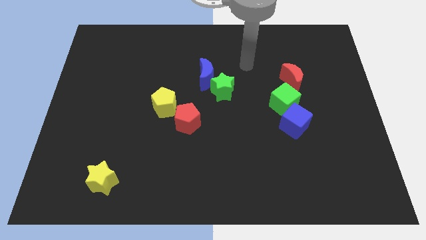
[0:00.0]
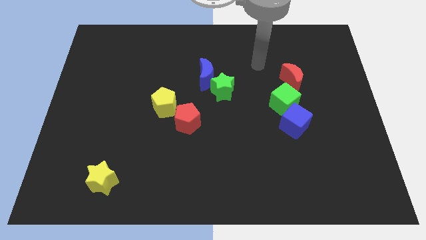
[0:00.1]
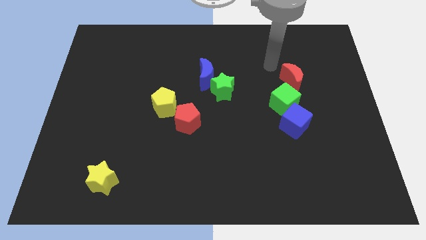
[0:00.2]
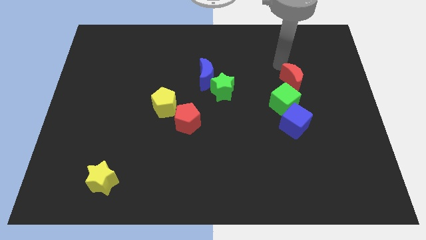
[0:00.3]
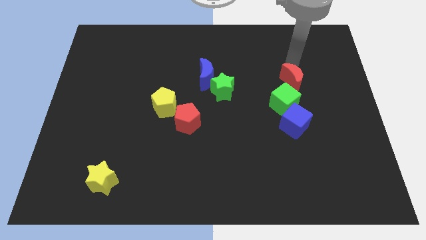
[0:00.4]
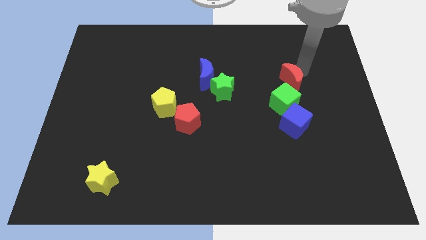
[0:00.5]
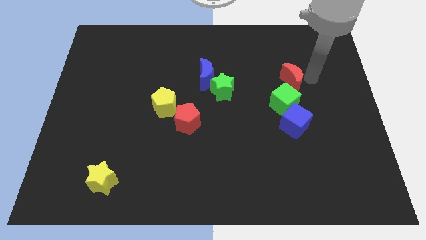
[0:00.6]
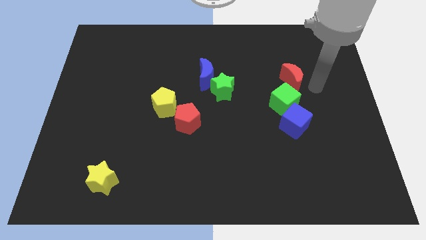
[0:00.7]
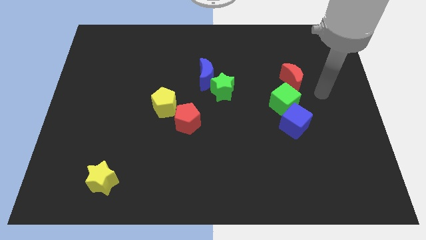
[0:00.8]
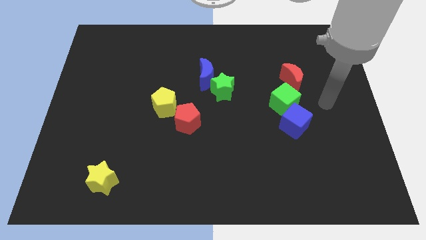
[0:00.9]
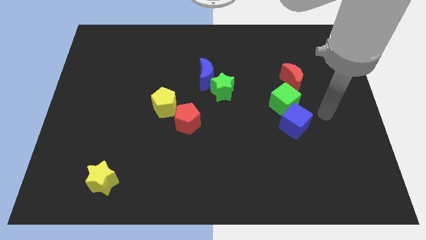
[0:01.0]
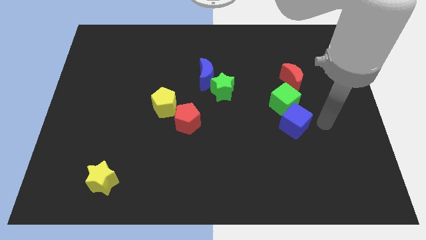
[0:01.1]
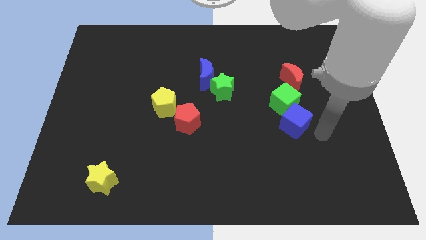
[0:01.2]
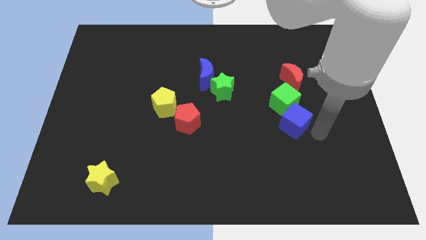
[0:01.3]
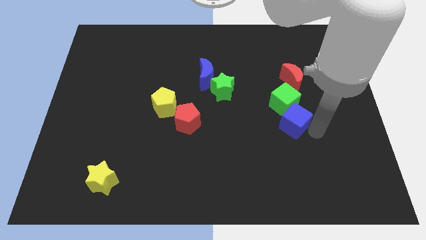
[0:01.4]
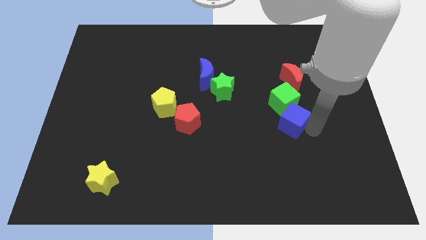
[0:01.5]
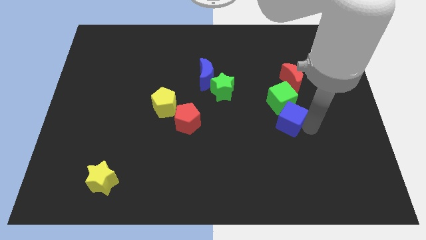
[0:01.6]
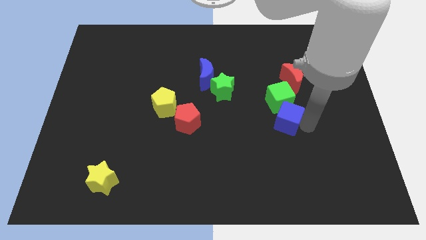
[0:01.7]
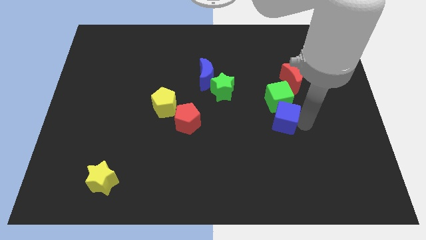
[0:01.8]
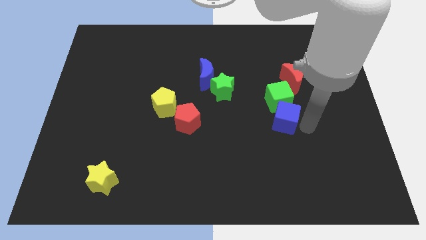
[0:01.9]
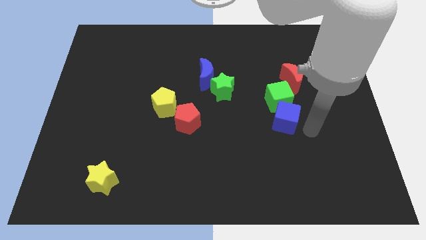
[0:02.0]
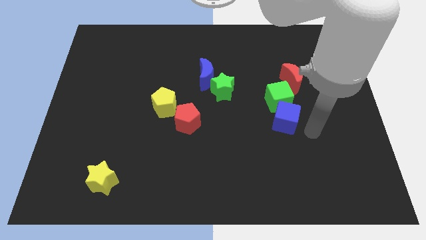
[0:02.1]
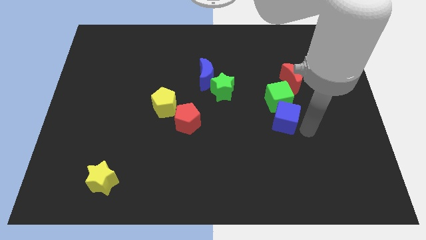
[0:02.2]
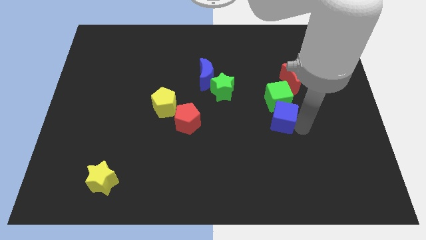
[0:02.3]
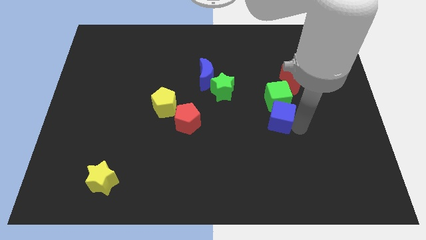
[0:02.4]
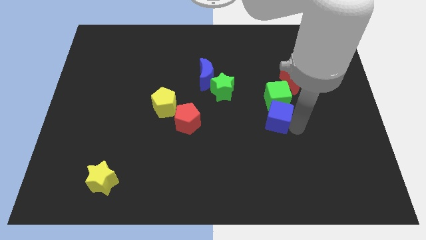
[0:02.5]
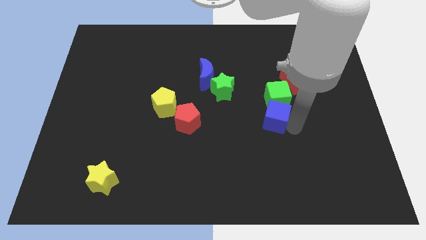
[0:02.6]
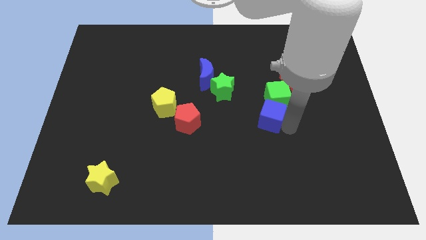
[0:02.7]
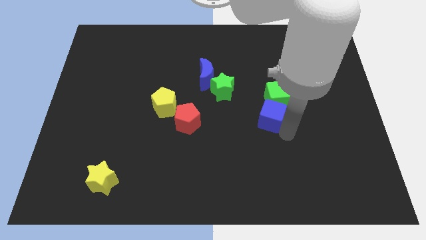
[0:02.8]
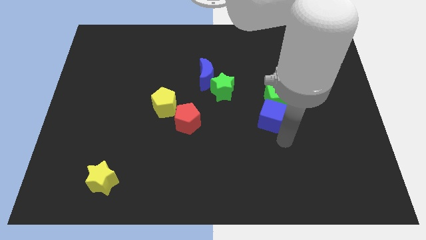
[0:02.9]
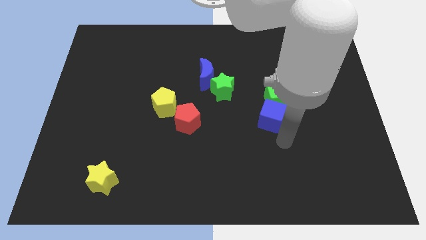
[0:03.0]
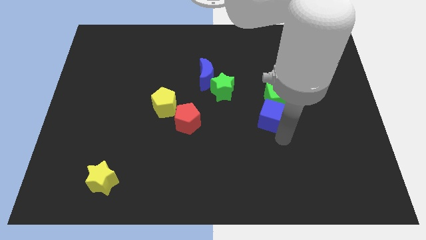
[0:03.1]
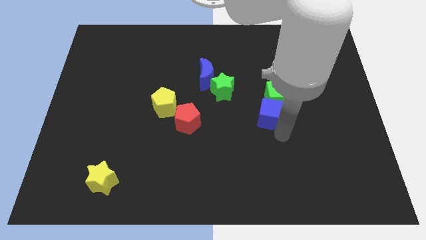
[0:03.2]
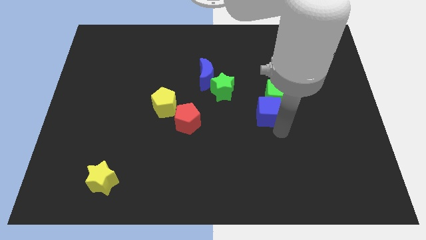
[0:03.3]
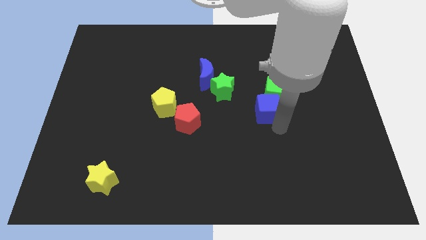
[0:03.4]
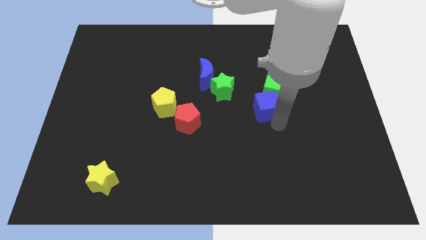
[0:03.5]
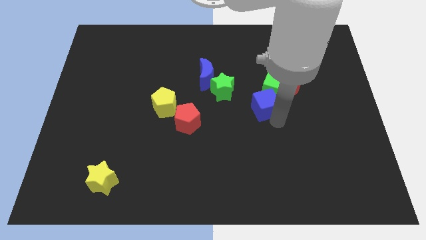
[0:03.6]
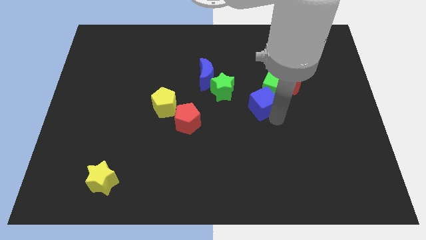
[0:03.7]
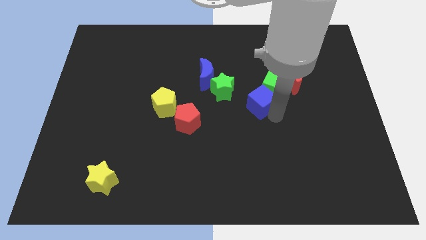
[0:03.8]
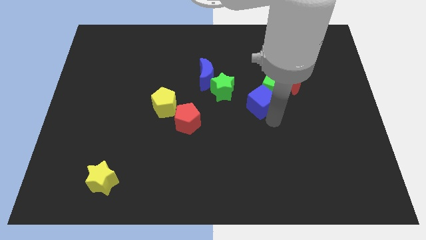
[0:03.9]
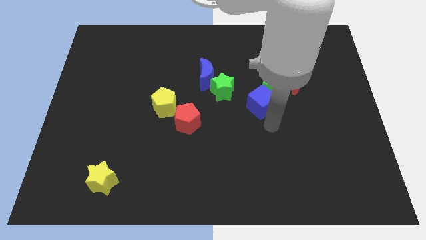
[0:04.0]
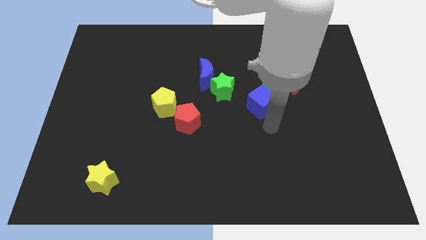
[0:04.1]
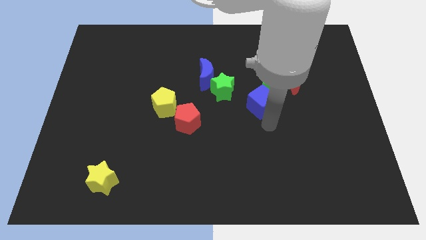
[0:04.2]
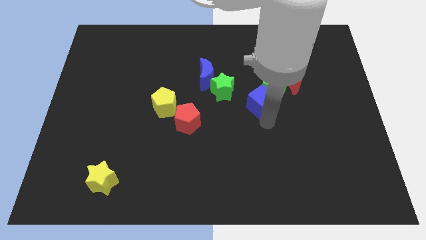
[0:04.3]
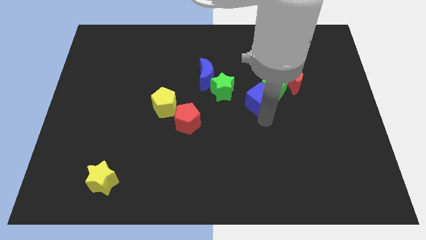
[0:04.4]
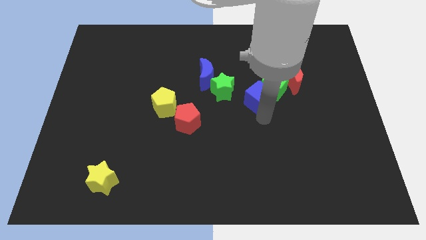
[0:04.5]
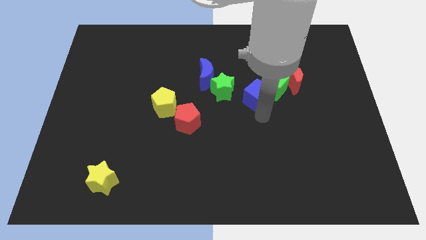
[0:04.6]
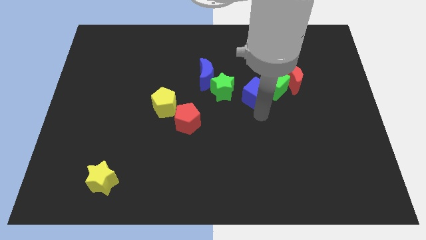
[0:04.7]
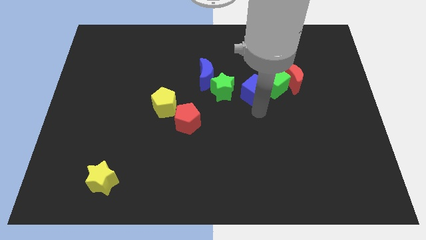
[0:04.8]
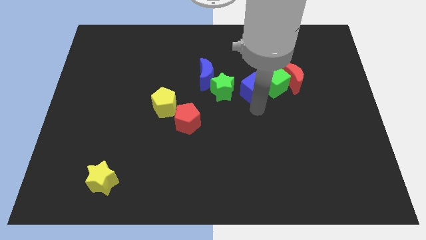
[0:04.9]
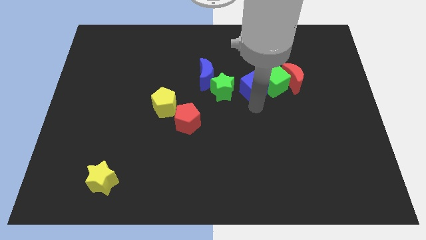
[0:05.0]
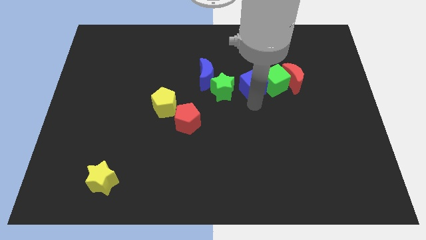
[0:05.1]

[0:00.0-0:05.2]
slide the blue cube diagonally up and to the right of the green star

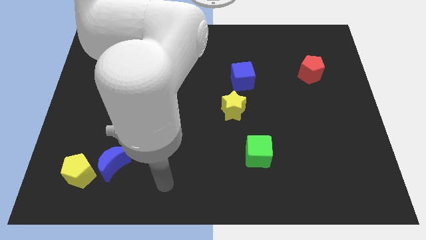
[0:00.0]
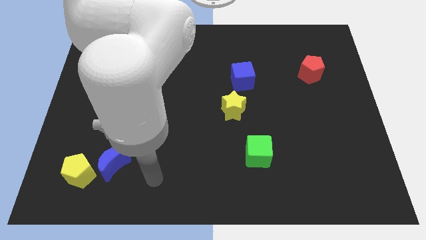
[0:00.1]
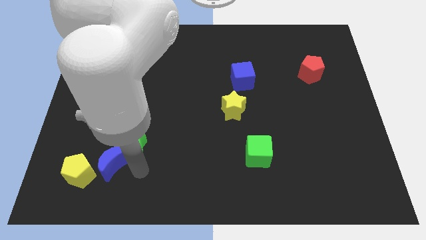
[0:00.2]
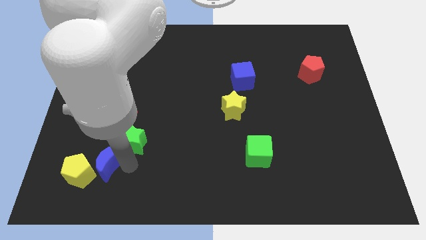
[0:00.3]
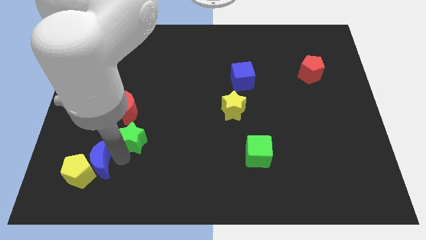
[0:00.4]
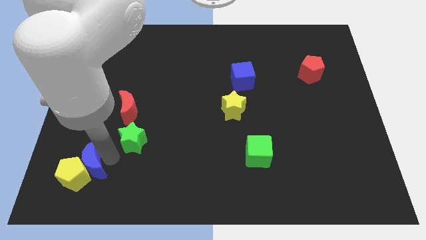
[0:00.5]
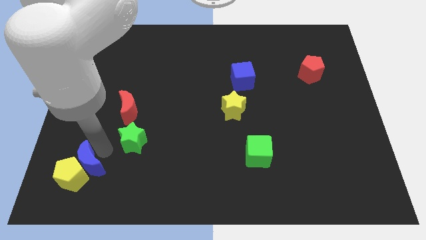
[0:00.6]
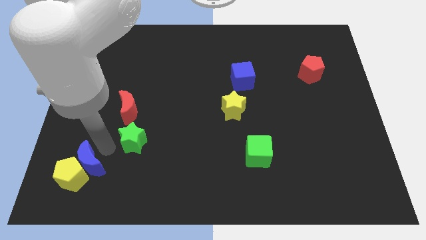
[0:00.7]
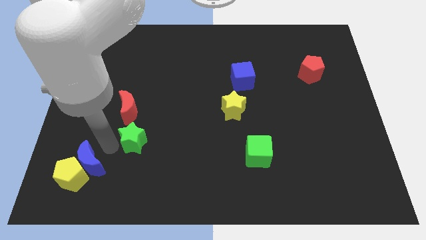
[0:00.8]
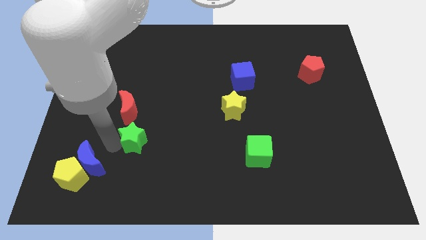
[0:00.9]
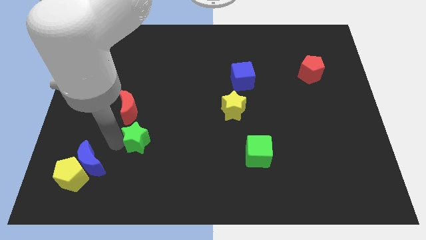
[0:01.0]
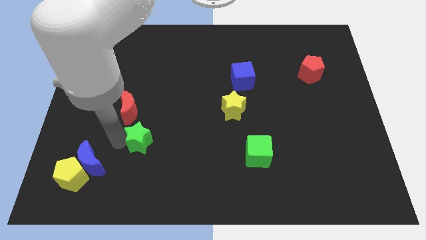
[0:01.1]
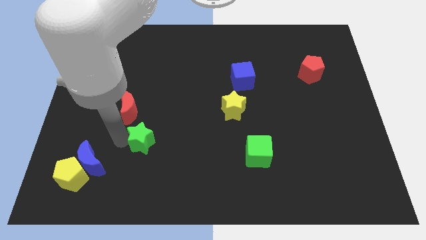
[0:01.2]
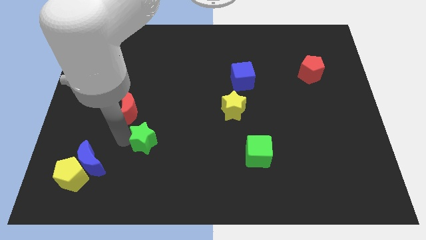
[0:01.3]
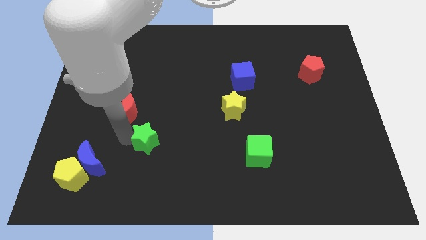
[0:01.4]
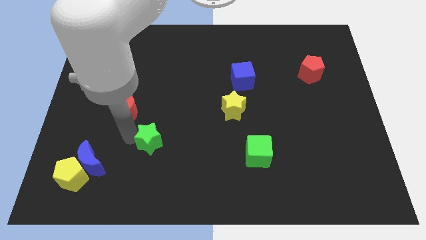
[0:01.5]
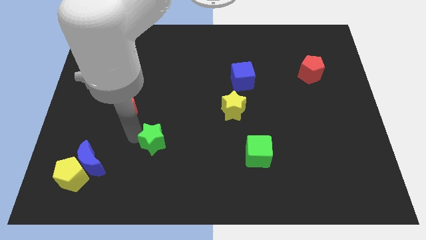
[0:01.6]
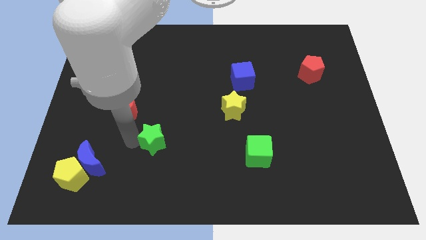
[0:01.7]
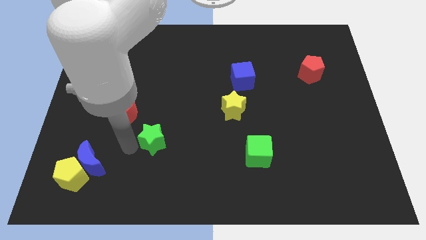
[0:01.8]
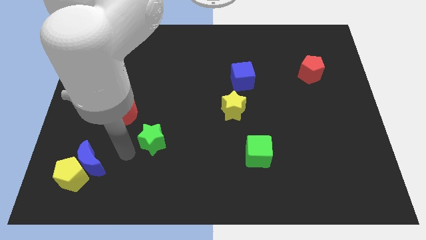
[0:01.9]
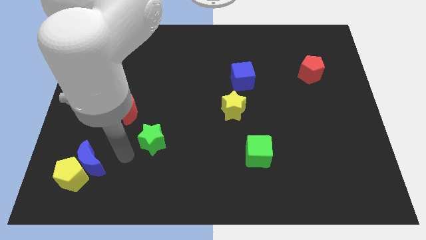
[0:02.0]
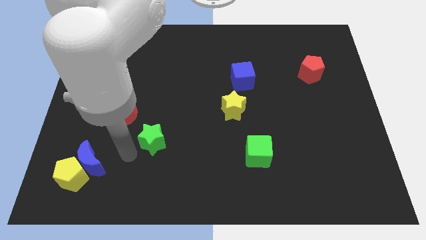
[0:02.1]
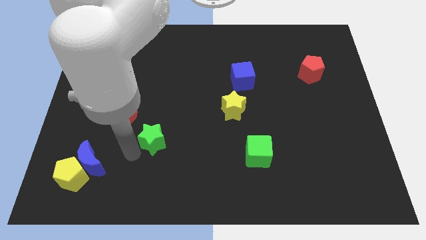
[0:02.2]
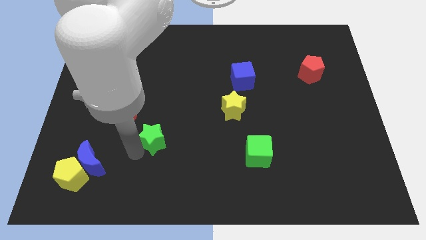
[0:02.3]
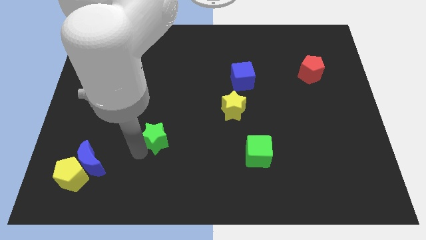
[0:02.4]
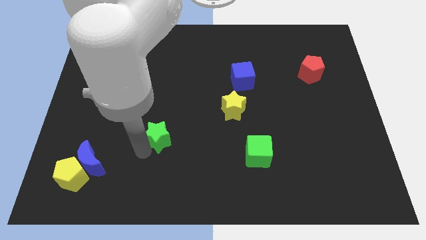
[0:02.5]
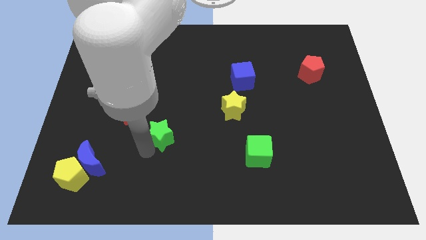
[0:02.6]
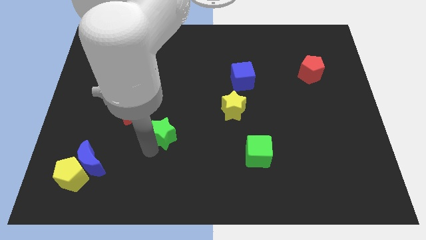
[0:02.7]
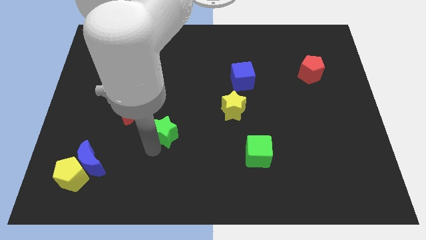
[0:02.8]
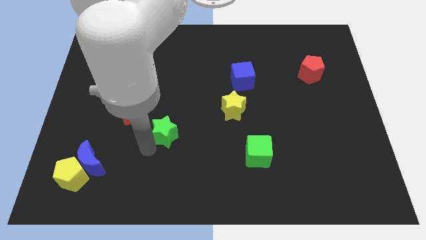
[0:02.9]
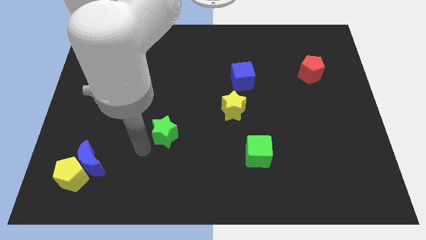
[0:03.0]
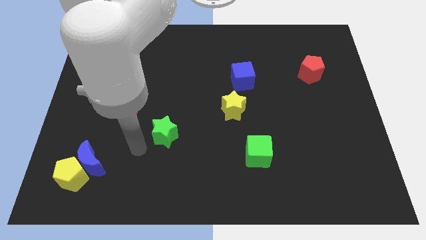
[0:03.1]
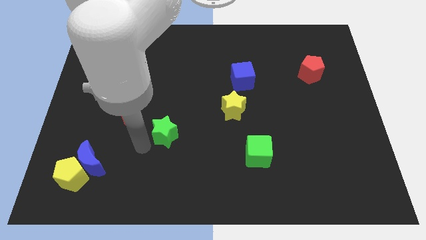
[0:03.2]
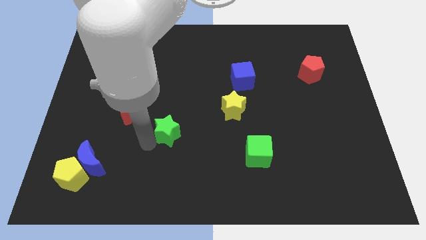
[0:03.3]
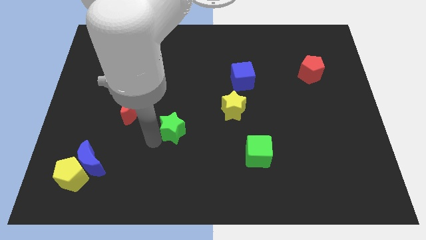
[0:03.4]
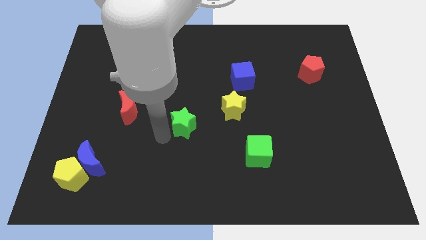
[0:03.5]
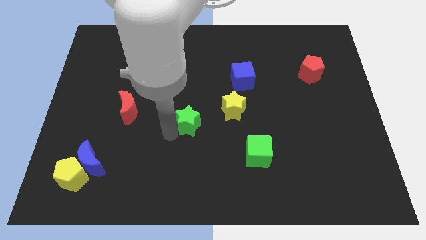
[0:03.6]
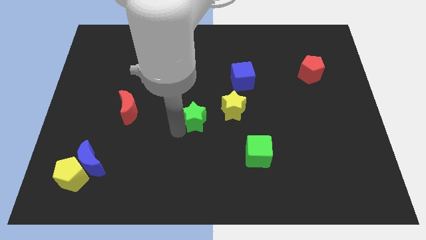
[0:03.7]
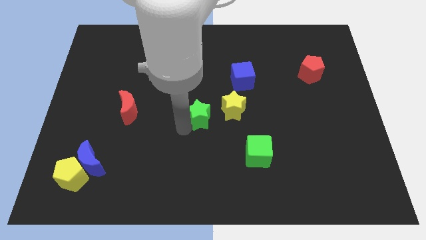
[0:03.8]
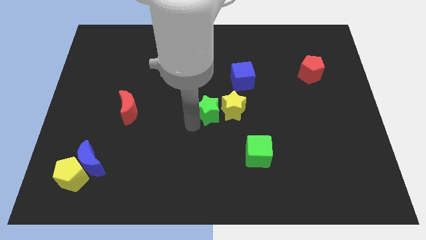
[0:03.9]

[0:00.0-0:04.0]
put the green star to the top left side of the yellow star
